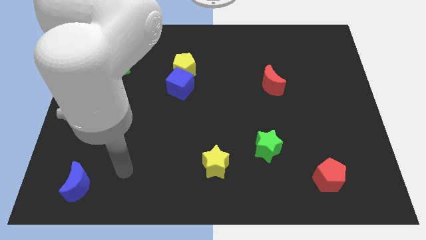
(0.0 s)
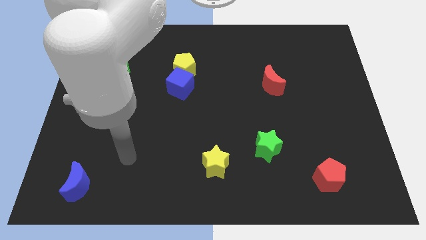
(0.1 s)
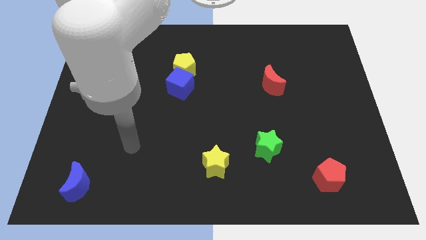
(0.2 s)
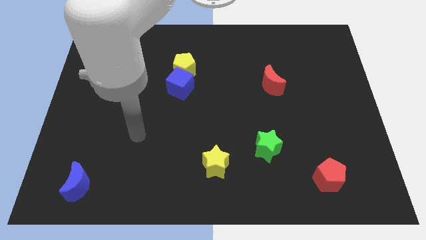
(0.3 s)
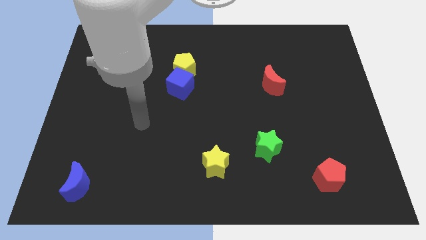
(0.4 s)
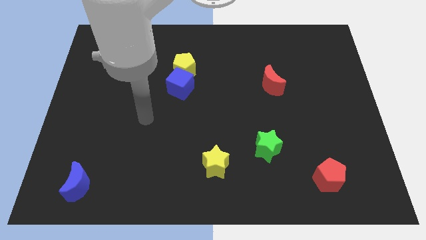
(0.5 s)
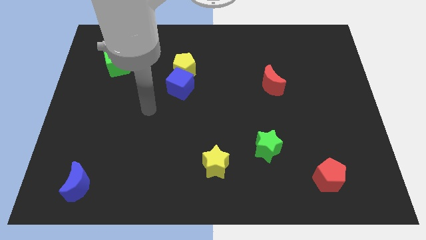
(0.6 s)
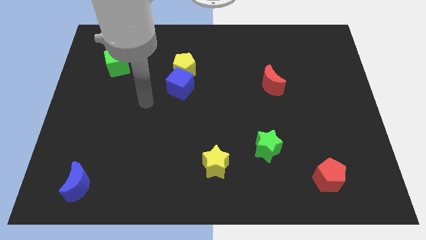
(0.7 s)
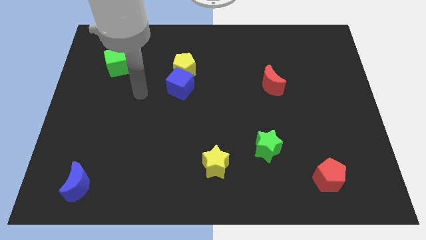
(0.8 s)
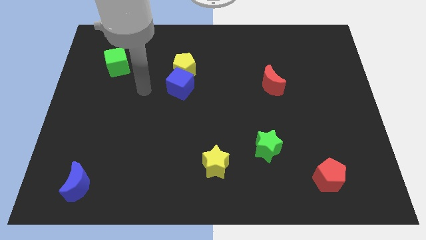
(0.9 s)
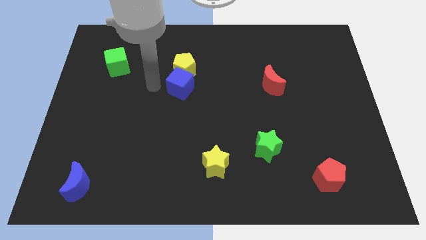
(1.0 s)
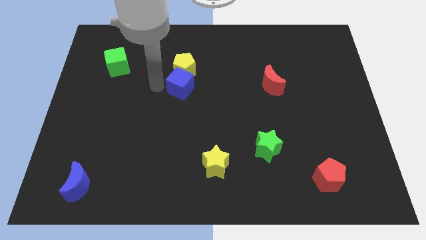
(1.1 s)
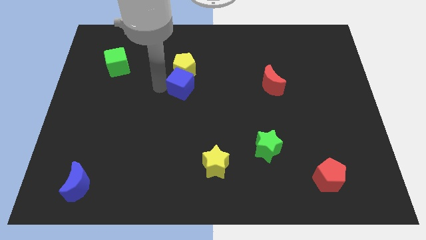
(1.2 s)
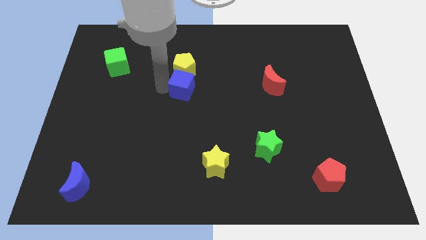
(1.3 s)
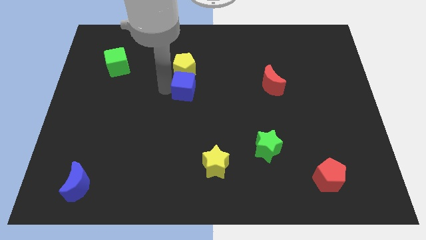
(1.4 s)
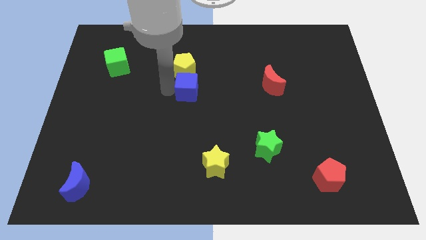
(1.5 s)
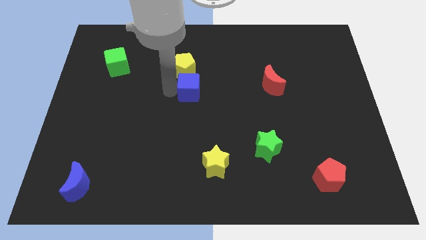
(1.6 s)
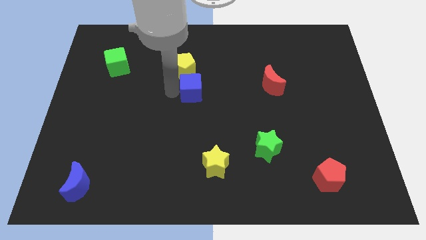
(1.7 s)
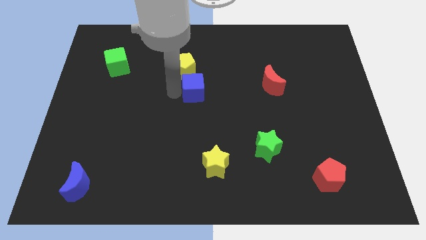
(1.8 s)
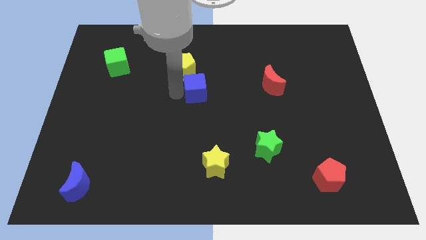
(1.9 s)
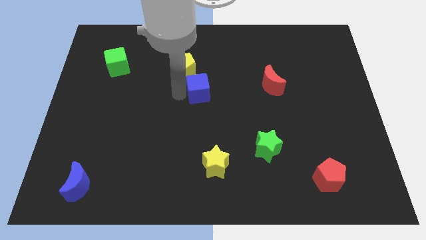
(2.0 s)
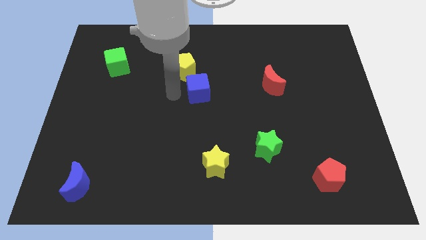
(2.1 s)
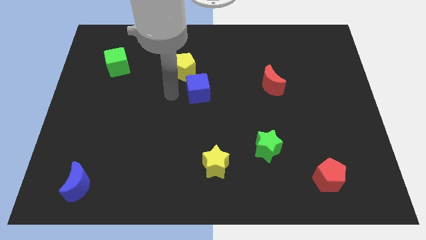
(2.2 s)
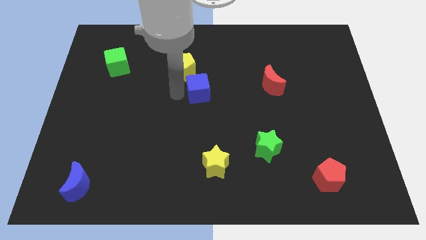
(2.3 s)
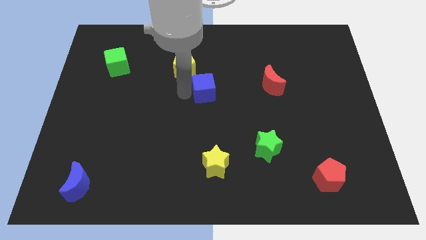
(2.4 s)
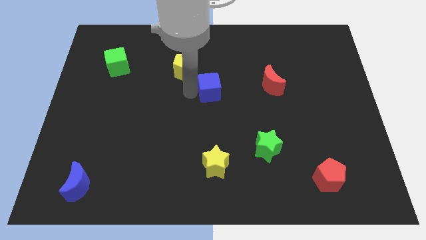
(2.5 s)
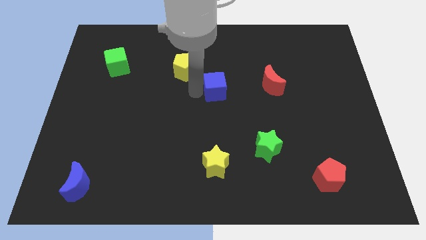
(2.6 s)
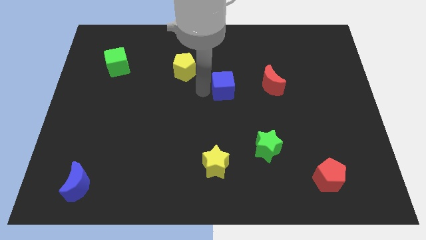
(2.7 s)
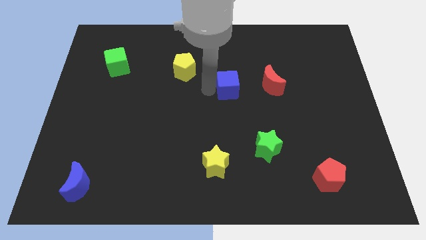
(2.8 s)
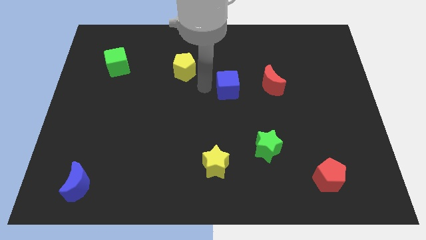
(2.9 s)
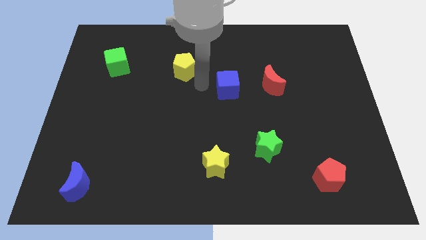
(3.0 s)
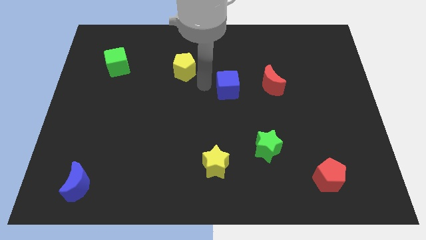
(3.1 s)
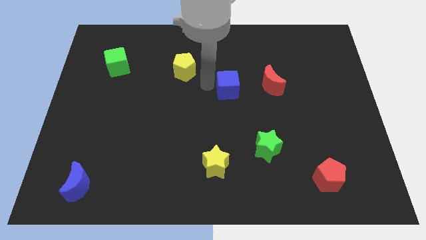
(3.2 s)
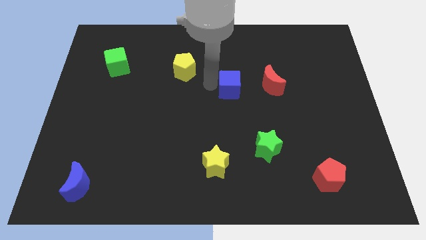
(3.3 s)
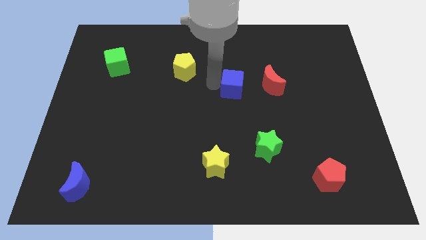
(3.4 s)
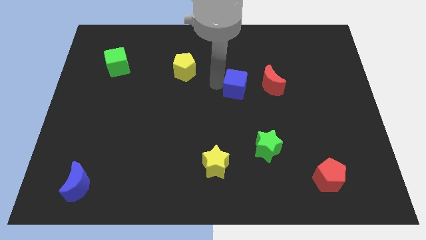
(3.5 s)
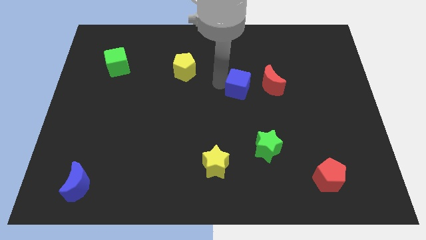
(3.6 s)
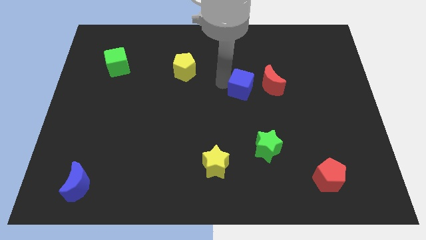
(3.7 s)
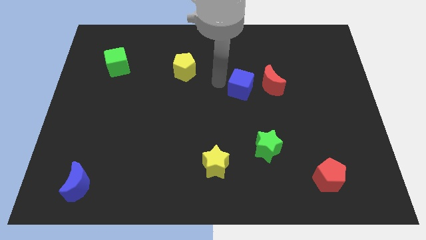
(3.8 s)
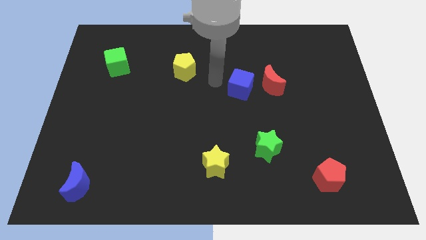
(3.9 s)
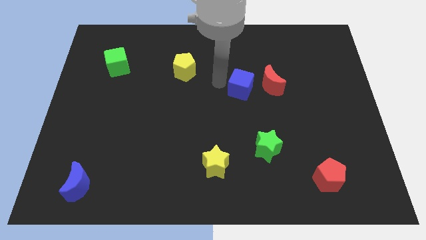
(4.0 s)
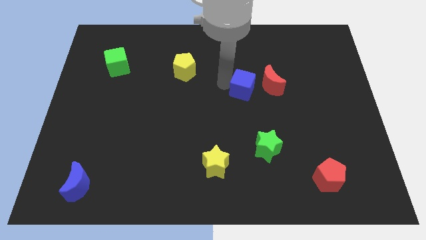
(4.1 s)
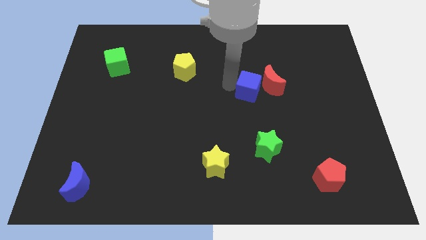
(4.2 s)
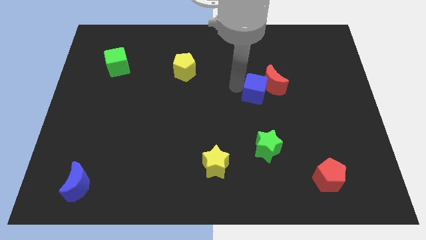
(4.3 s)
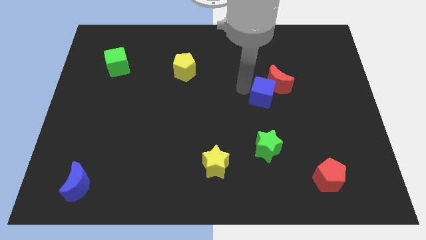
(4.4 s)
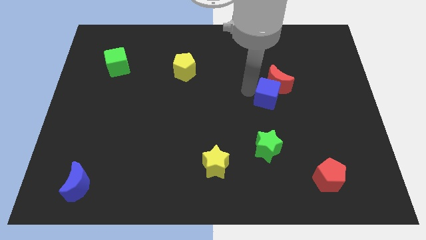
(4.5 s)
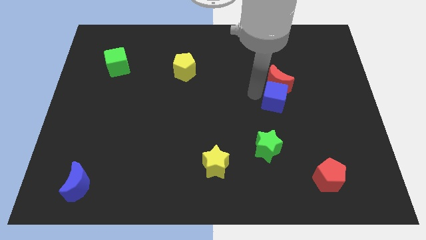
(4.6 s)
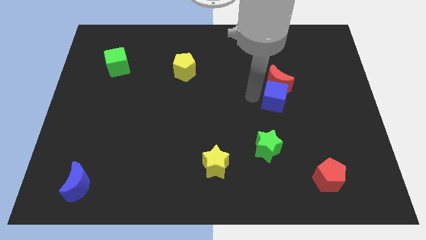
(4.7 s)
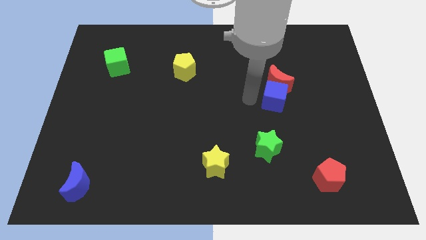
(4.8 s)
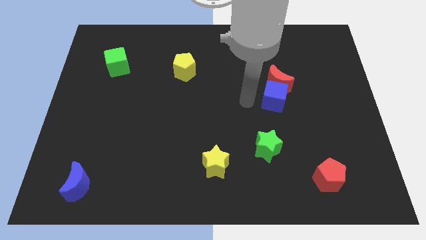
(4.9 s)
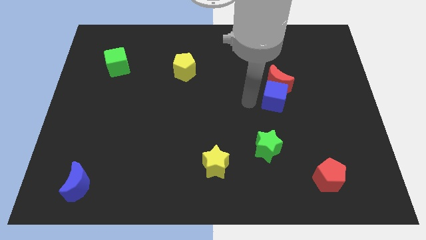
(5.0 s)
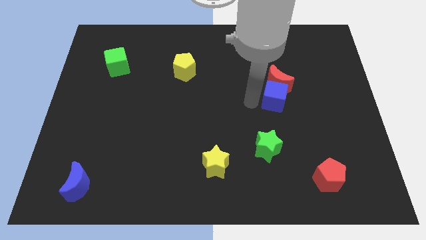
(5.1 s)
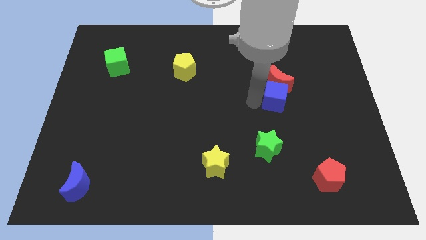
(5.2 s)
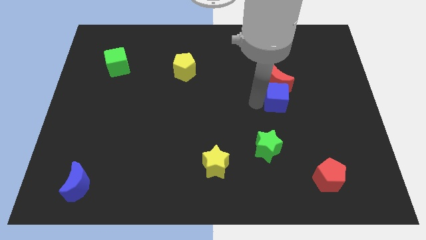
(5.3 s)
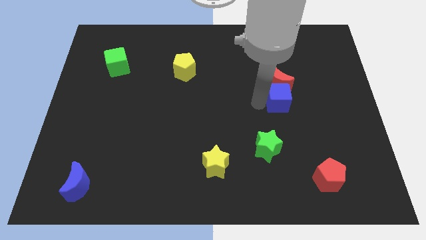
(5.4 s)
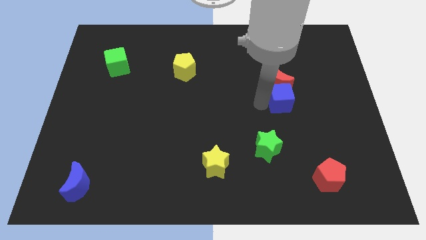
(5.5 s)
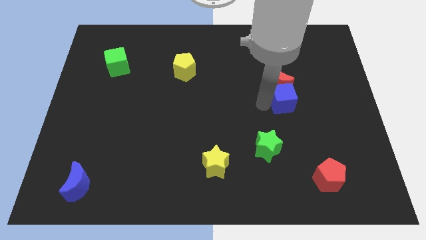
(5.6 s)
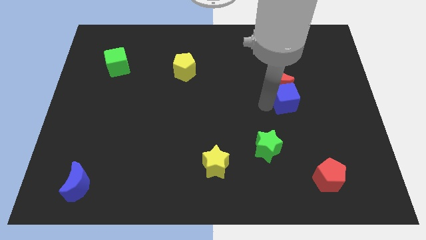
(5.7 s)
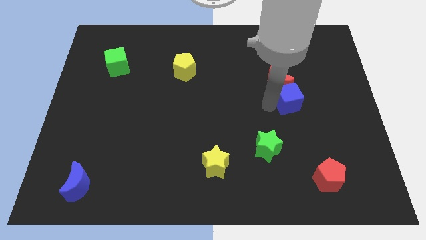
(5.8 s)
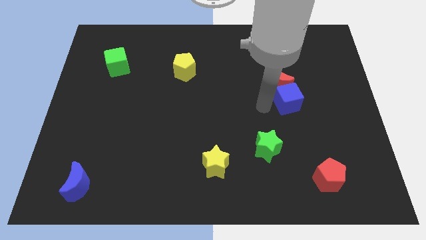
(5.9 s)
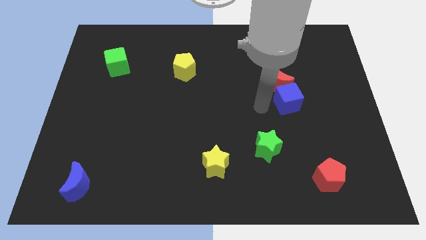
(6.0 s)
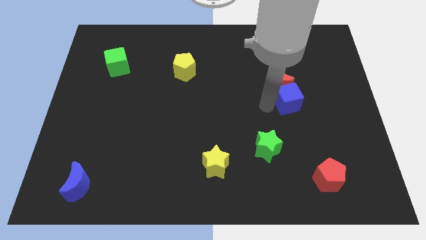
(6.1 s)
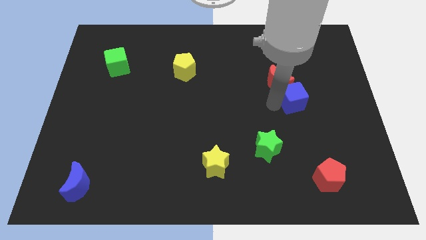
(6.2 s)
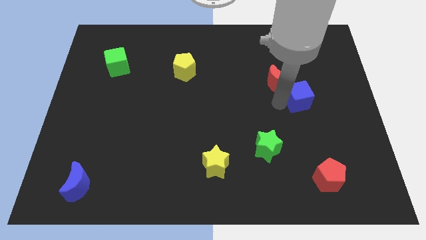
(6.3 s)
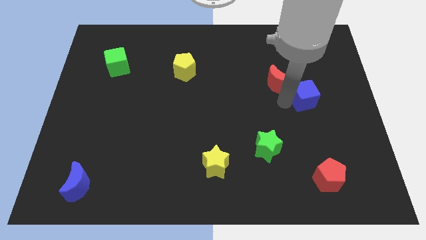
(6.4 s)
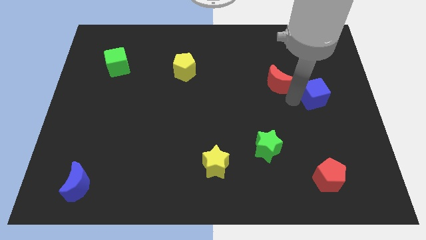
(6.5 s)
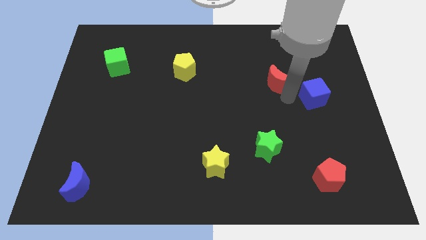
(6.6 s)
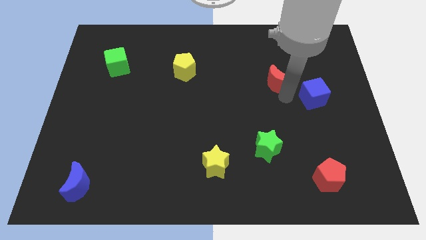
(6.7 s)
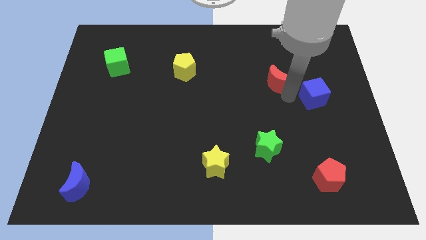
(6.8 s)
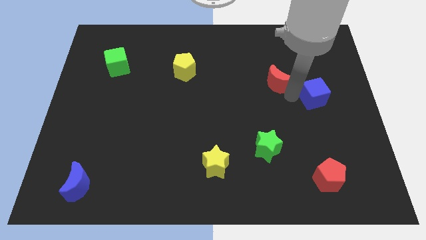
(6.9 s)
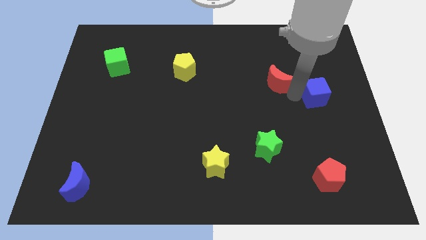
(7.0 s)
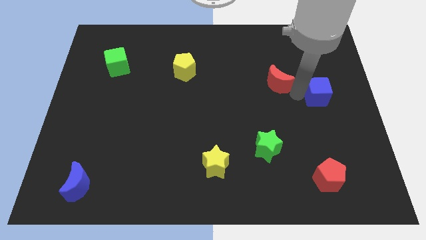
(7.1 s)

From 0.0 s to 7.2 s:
put the blue cube to the right side of the board
